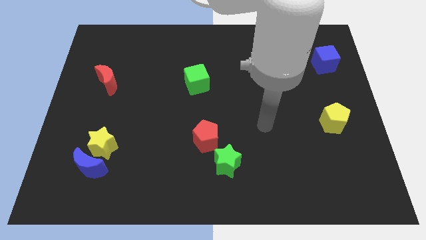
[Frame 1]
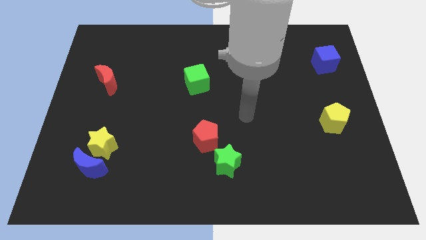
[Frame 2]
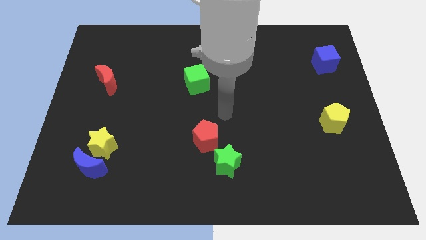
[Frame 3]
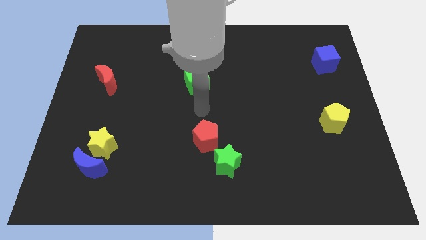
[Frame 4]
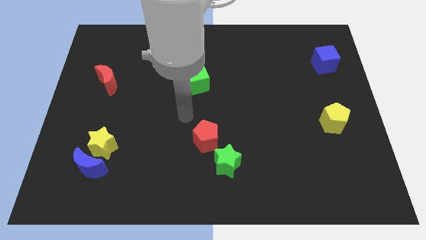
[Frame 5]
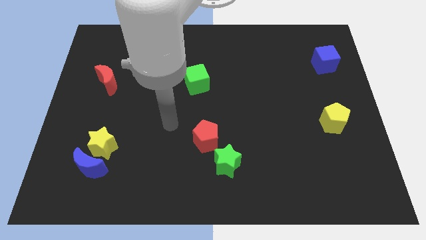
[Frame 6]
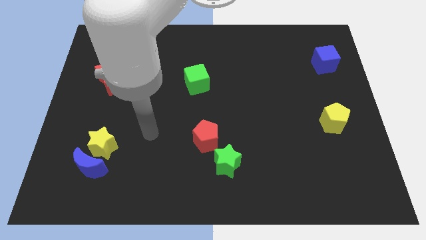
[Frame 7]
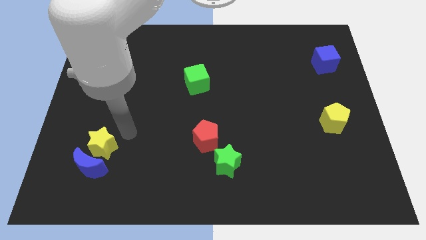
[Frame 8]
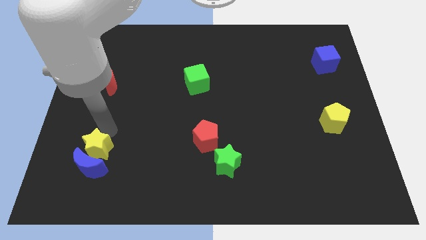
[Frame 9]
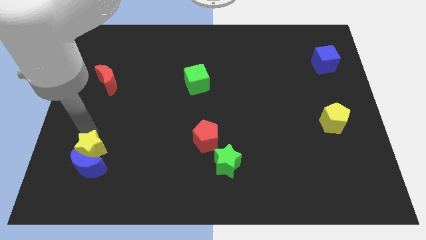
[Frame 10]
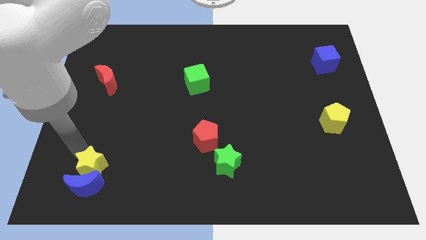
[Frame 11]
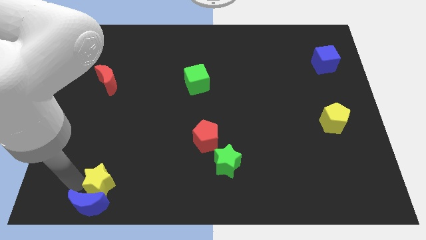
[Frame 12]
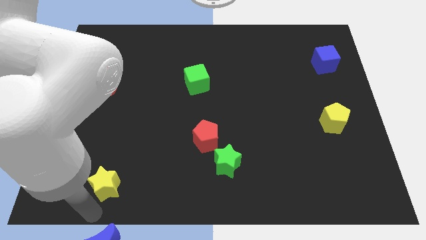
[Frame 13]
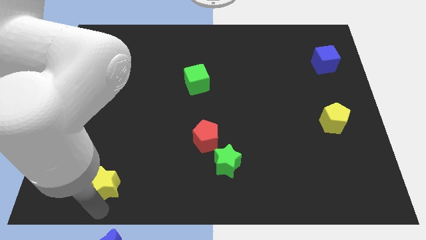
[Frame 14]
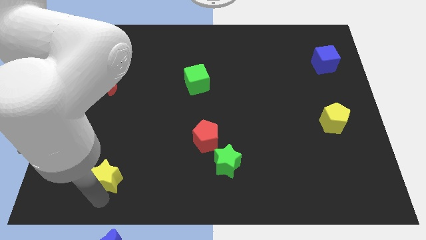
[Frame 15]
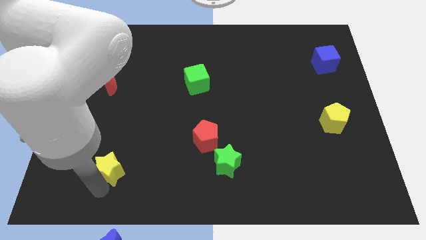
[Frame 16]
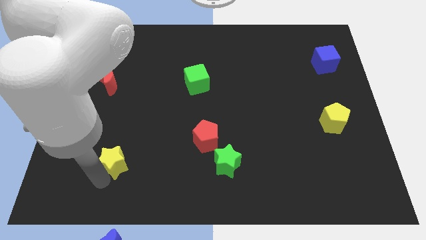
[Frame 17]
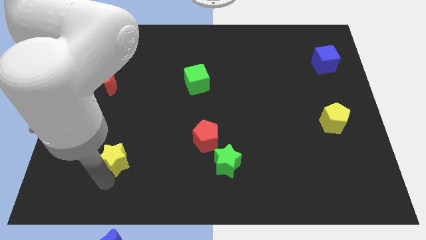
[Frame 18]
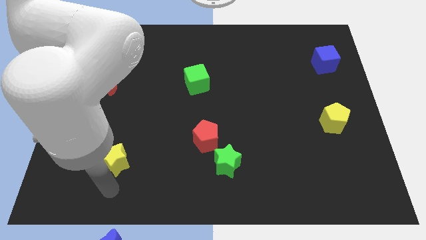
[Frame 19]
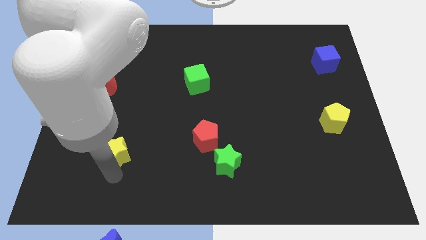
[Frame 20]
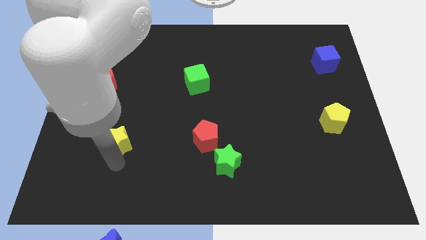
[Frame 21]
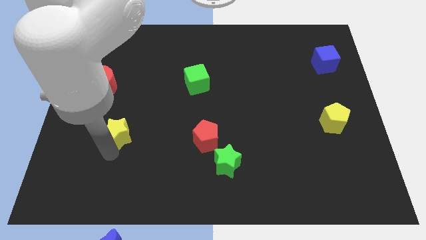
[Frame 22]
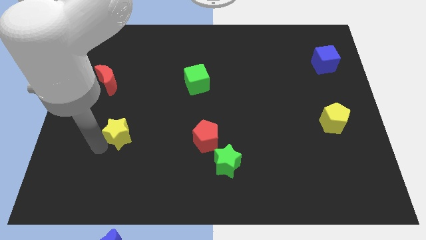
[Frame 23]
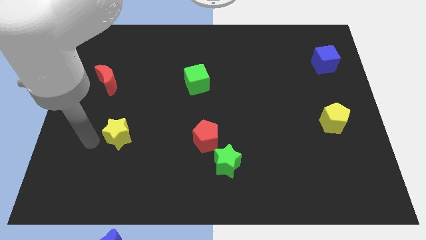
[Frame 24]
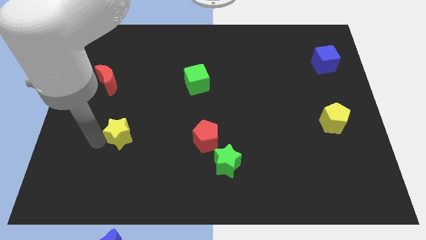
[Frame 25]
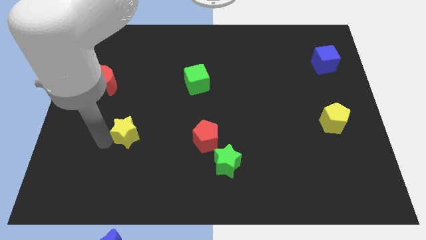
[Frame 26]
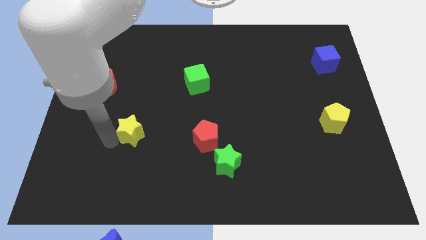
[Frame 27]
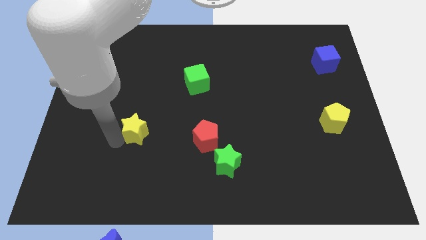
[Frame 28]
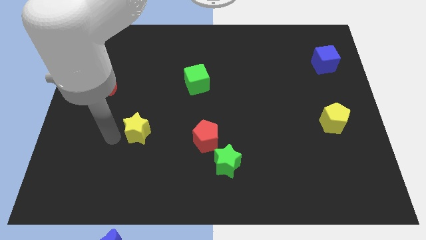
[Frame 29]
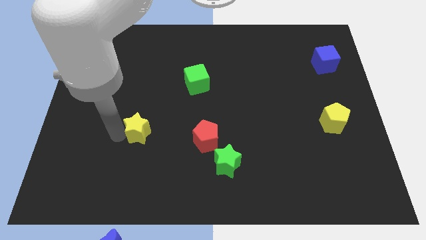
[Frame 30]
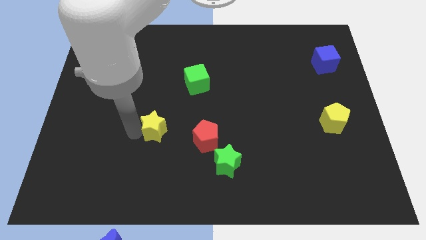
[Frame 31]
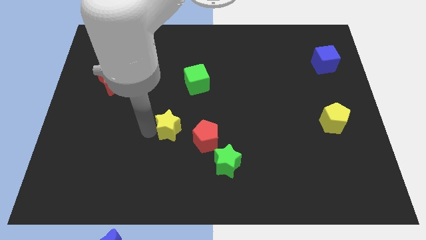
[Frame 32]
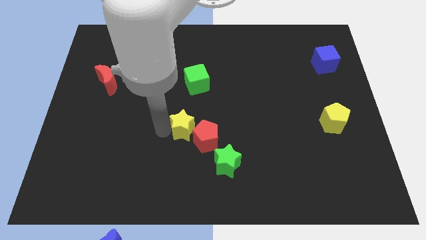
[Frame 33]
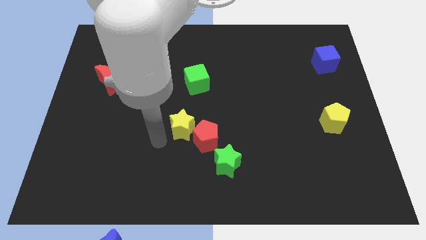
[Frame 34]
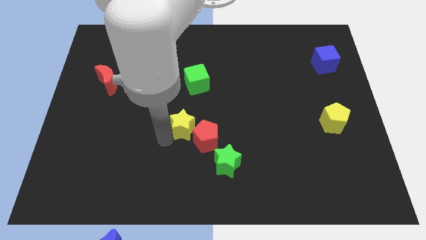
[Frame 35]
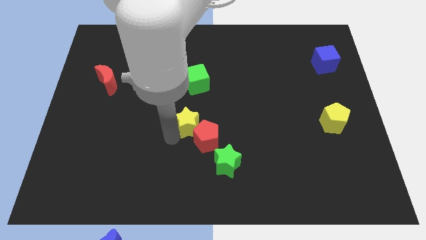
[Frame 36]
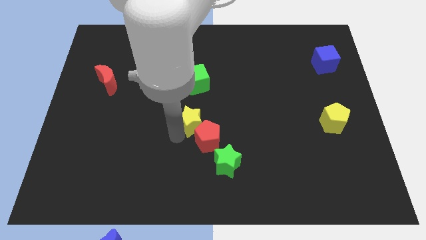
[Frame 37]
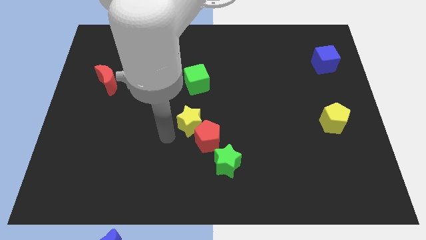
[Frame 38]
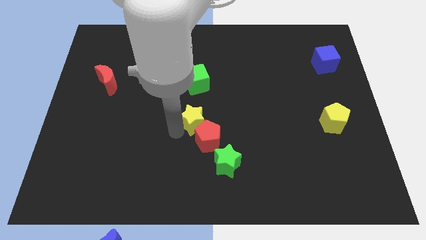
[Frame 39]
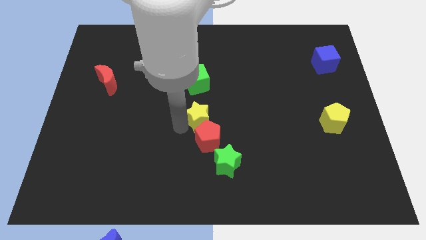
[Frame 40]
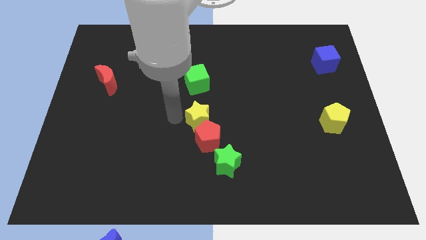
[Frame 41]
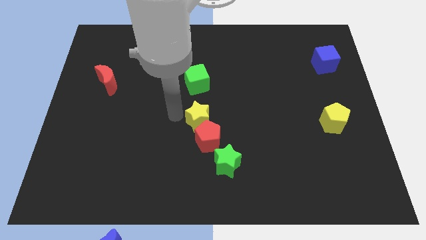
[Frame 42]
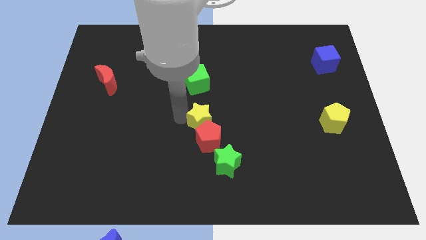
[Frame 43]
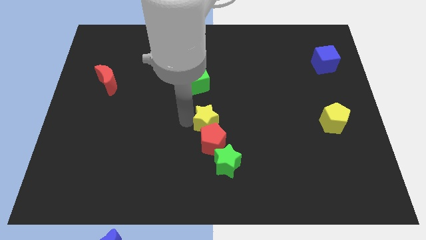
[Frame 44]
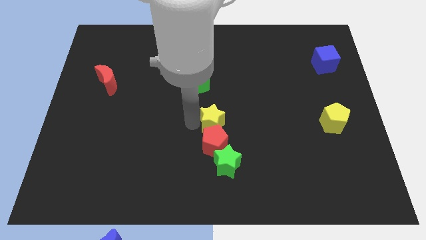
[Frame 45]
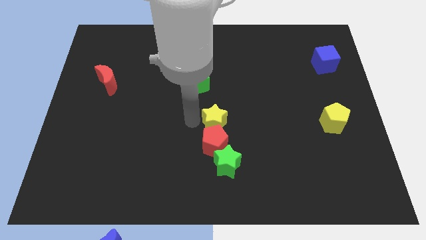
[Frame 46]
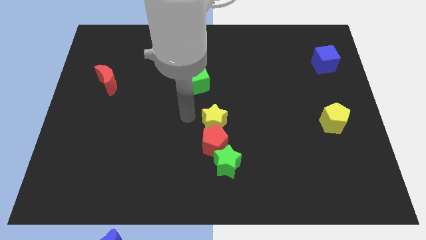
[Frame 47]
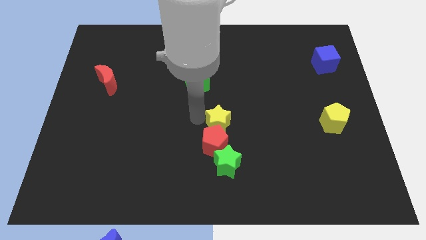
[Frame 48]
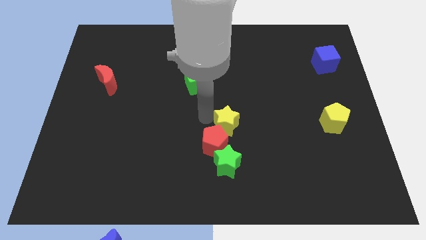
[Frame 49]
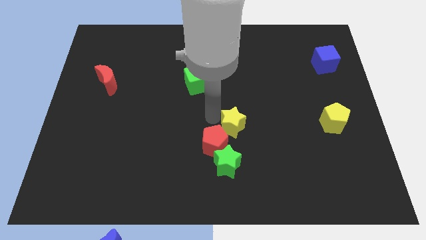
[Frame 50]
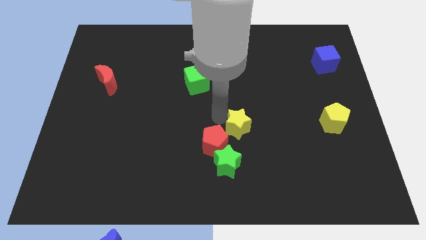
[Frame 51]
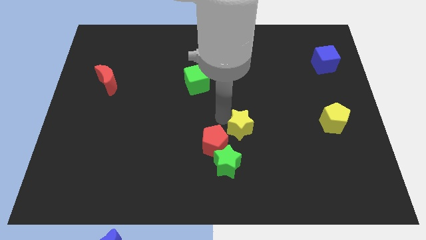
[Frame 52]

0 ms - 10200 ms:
move the yellow star diagonally up and to the right of the green star

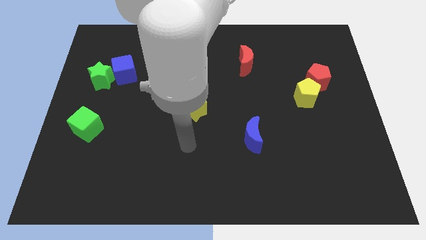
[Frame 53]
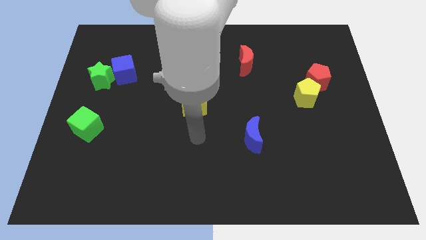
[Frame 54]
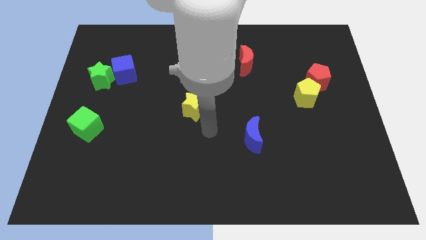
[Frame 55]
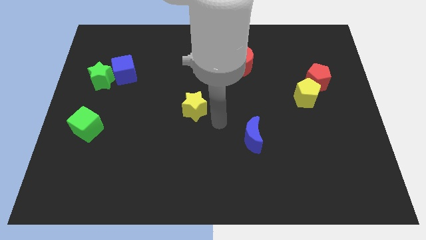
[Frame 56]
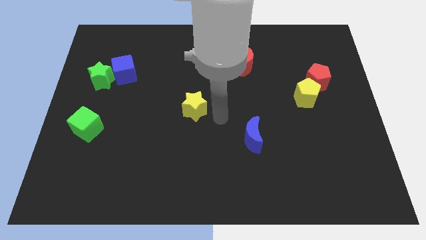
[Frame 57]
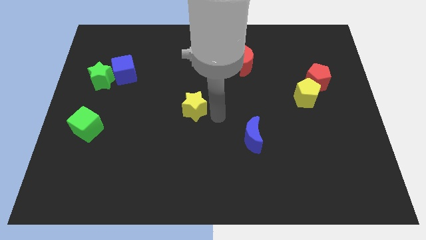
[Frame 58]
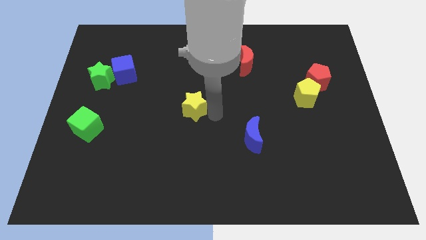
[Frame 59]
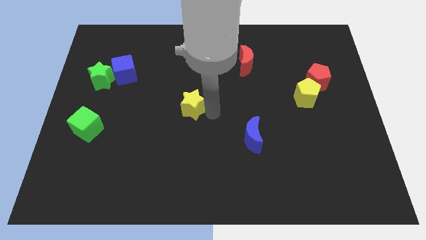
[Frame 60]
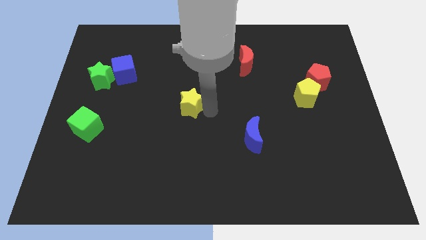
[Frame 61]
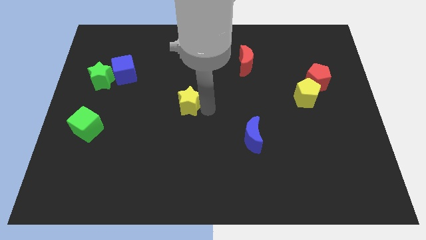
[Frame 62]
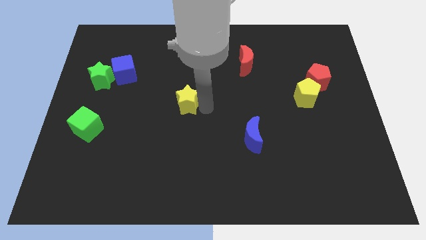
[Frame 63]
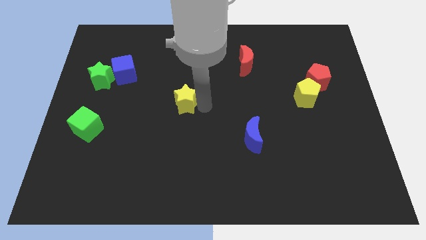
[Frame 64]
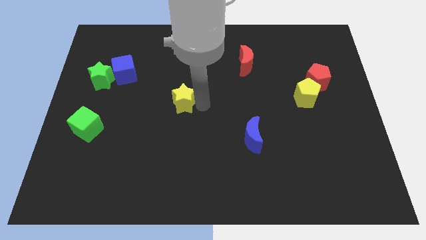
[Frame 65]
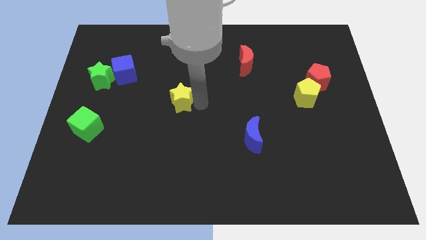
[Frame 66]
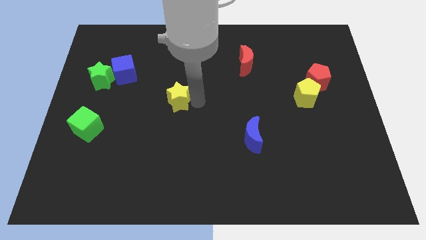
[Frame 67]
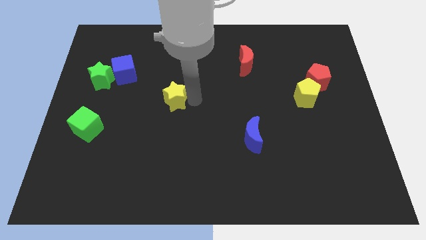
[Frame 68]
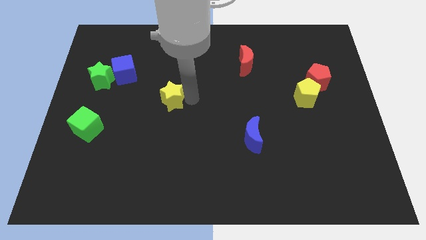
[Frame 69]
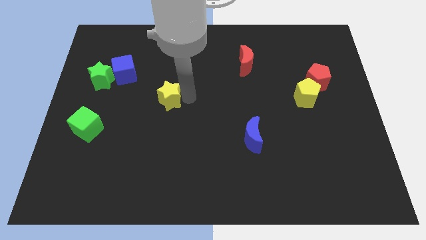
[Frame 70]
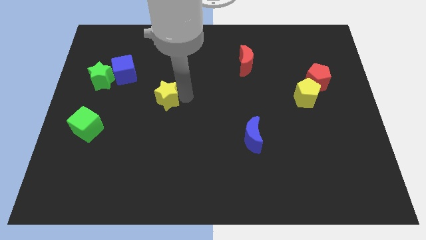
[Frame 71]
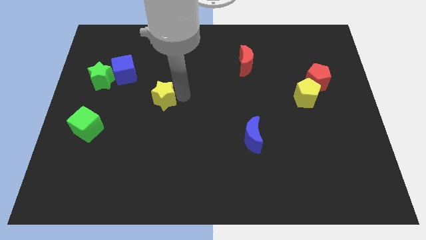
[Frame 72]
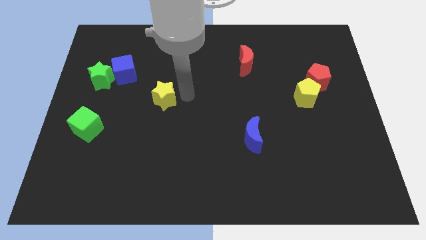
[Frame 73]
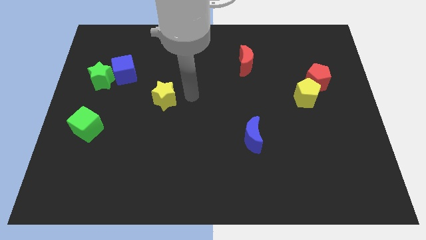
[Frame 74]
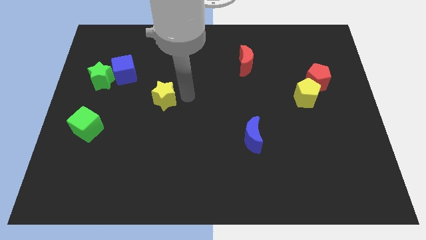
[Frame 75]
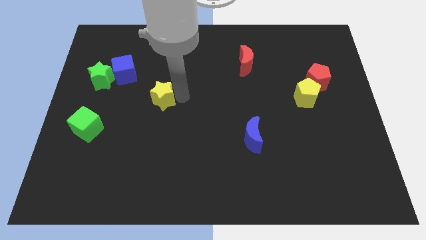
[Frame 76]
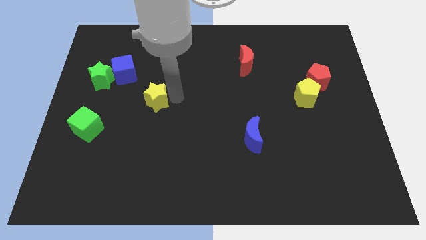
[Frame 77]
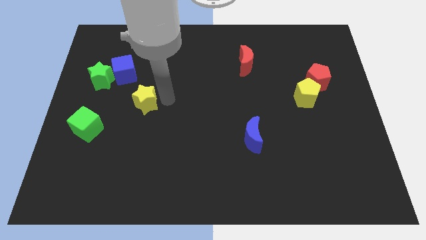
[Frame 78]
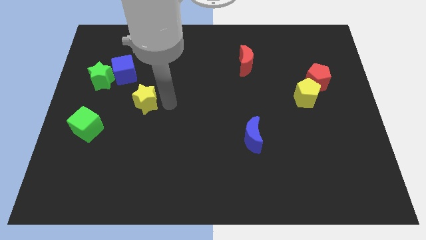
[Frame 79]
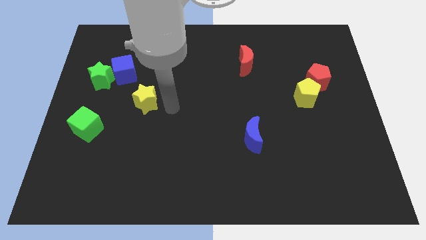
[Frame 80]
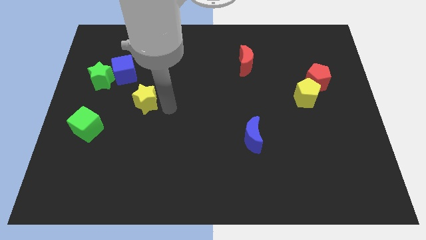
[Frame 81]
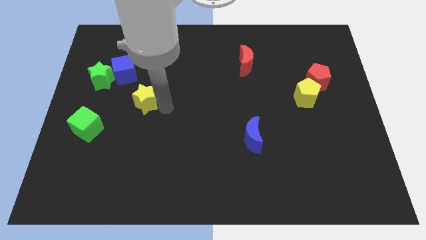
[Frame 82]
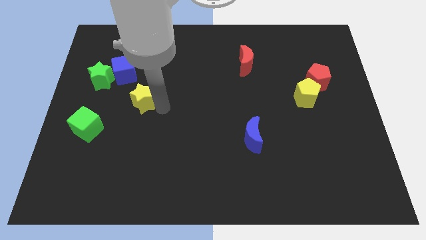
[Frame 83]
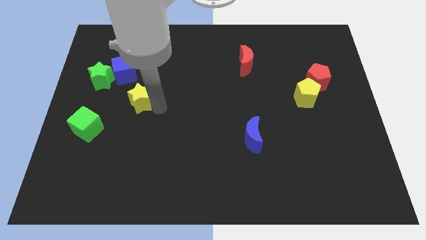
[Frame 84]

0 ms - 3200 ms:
slide the yellow star to the bottom right of the green star
